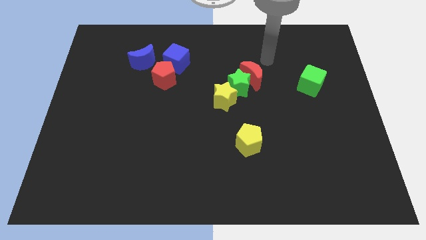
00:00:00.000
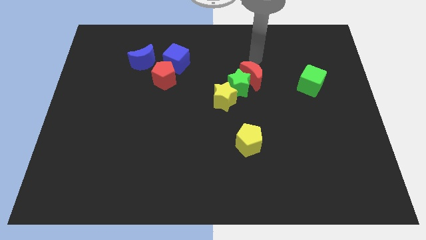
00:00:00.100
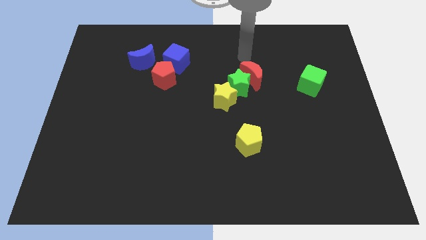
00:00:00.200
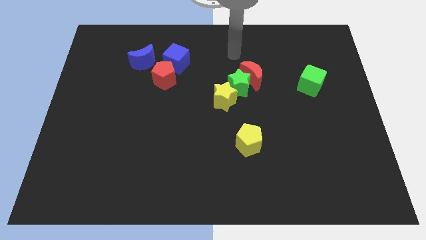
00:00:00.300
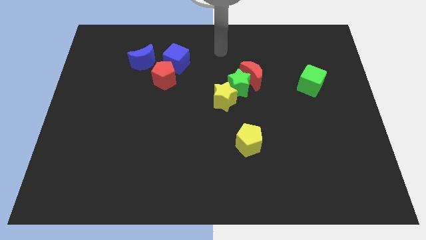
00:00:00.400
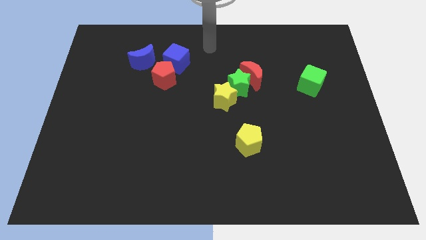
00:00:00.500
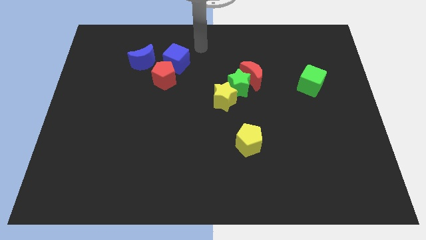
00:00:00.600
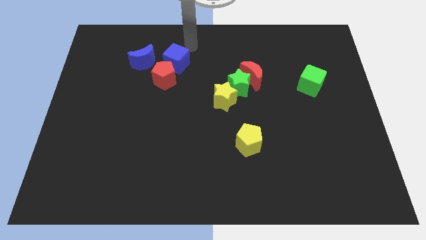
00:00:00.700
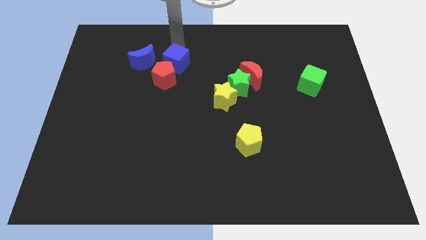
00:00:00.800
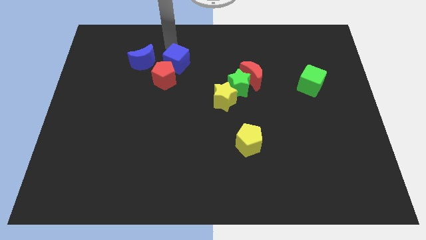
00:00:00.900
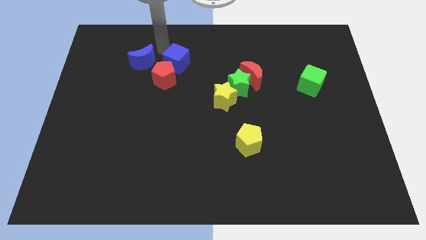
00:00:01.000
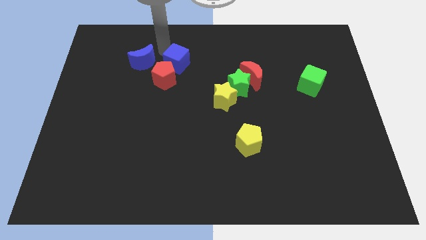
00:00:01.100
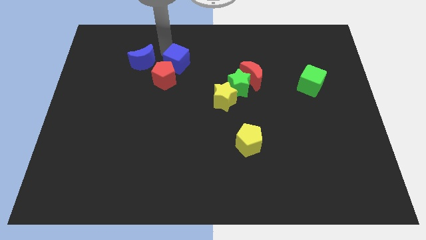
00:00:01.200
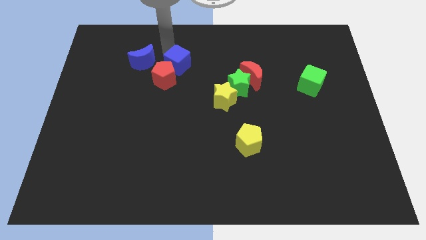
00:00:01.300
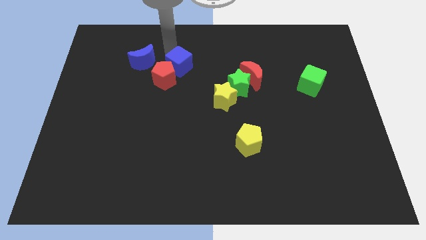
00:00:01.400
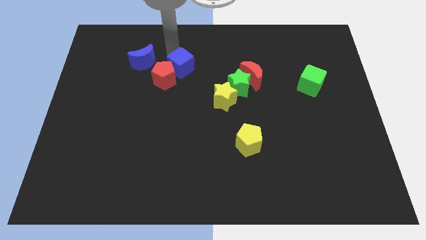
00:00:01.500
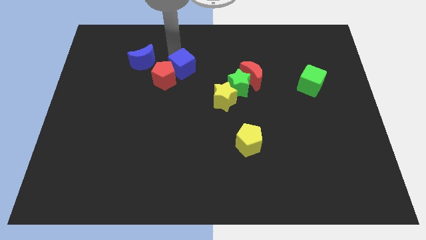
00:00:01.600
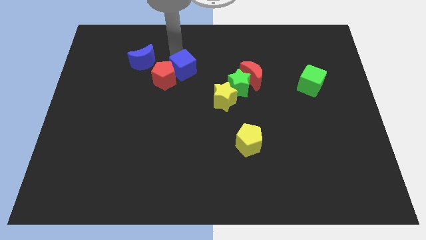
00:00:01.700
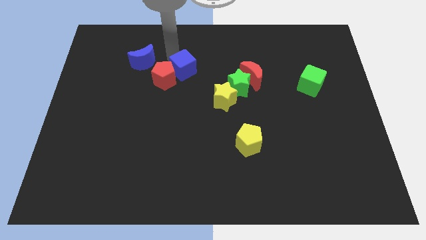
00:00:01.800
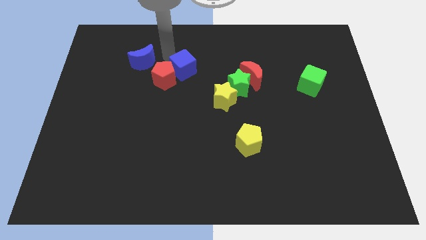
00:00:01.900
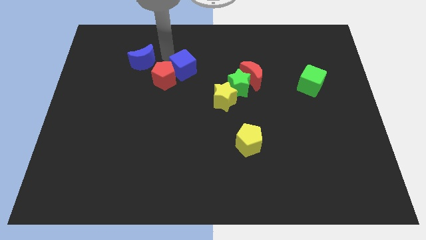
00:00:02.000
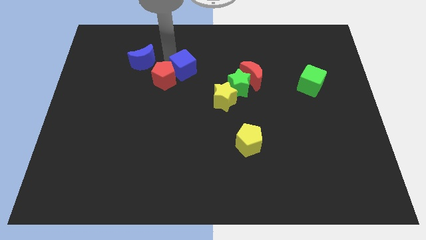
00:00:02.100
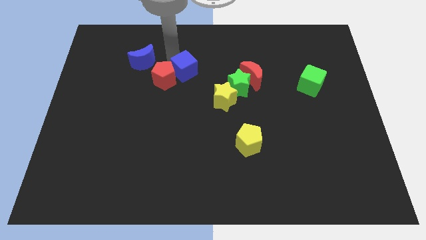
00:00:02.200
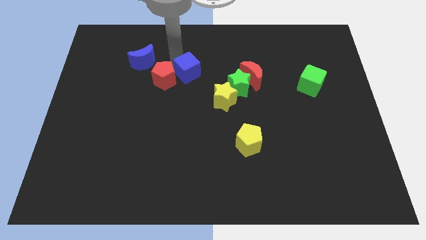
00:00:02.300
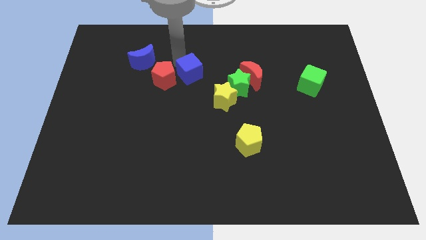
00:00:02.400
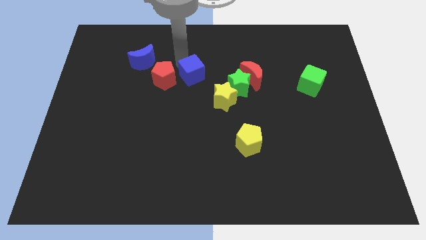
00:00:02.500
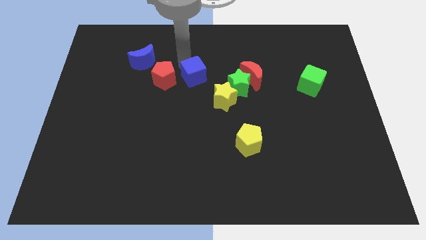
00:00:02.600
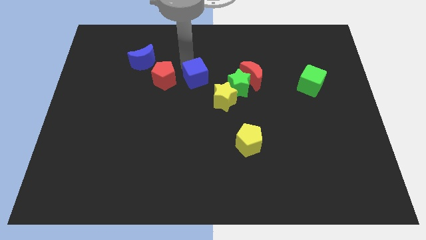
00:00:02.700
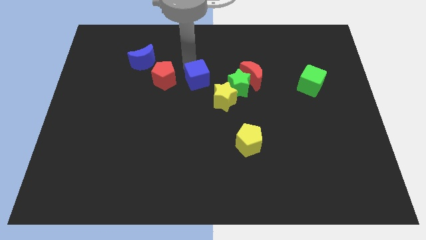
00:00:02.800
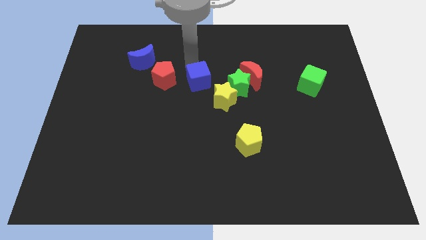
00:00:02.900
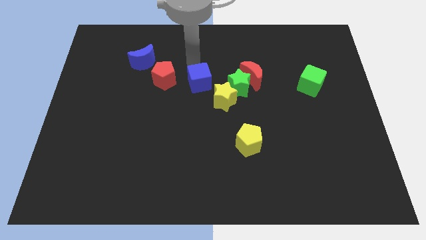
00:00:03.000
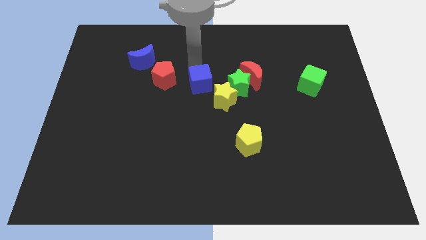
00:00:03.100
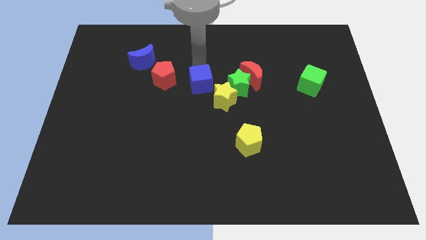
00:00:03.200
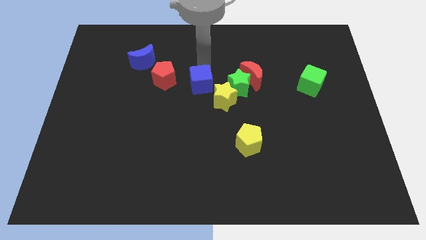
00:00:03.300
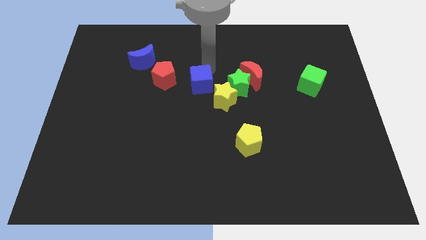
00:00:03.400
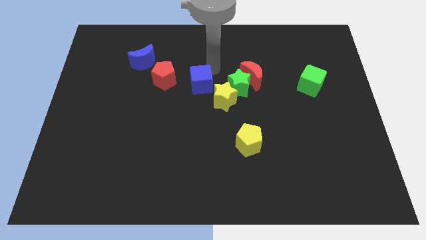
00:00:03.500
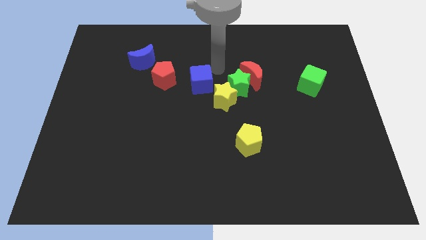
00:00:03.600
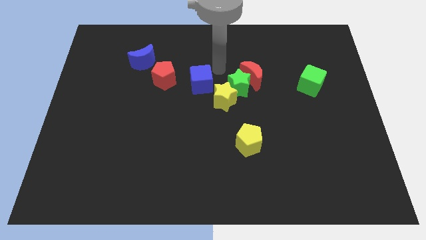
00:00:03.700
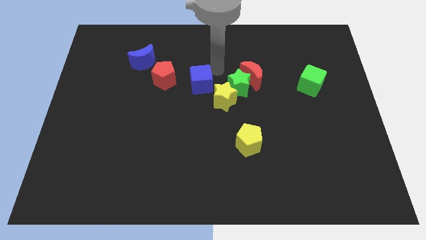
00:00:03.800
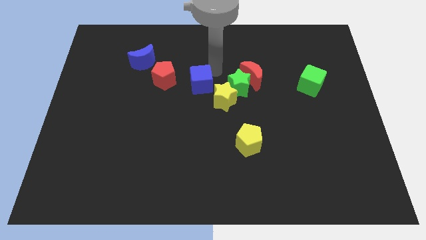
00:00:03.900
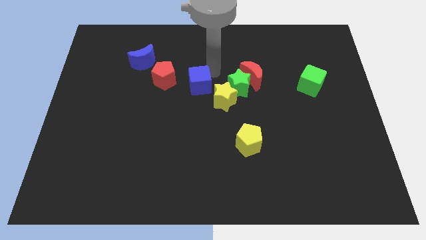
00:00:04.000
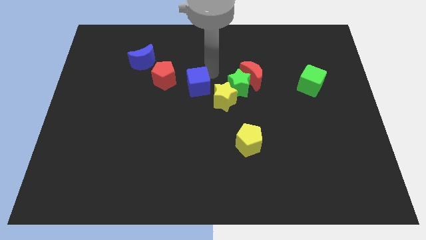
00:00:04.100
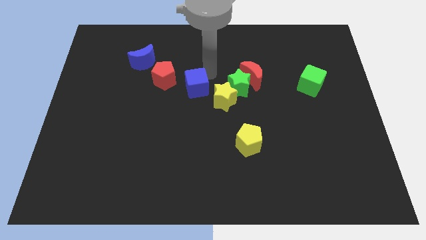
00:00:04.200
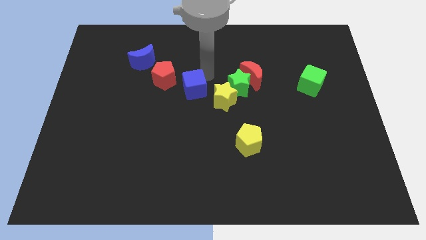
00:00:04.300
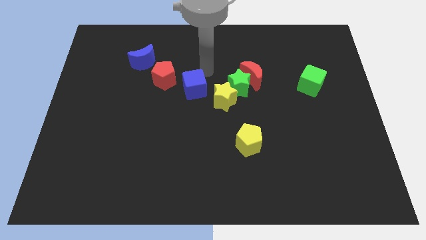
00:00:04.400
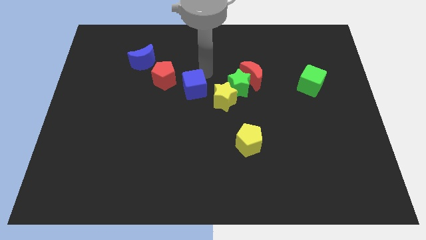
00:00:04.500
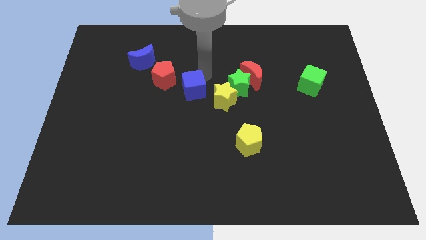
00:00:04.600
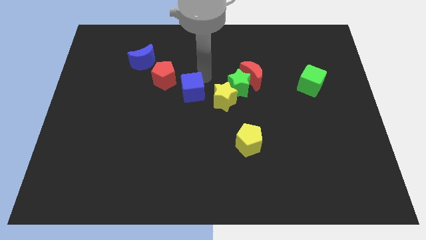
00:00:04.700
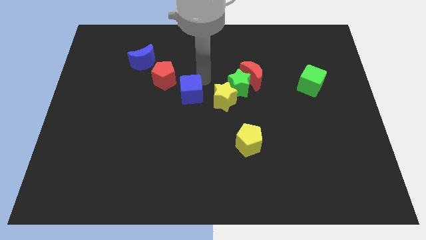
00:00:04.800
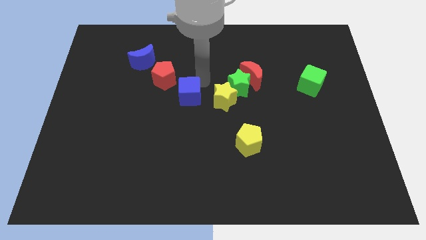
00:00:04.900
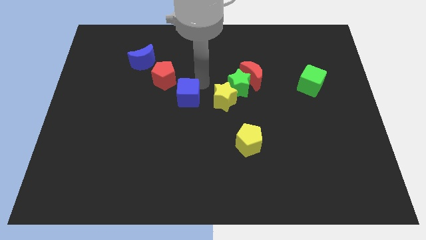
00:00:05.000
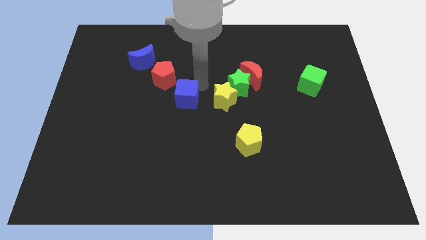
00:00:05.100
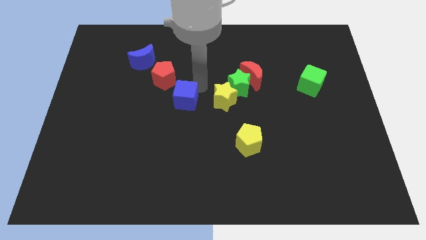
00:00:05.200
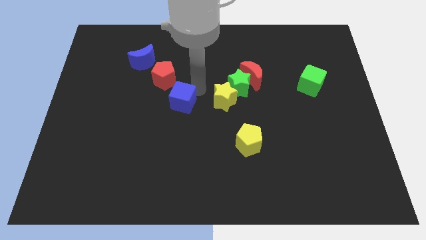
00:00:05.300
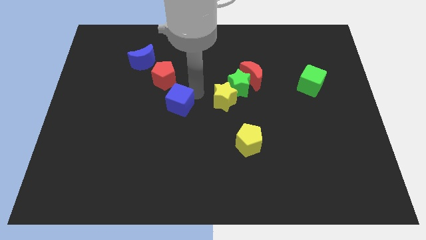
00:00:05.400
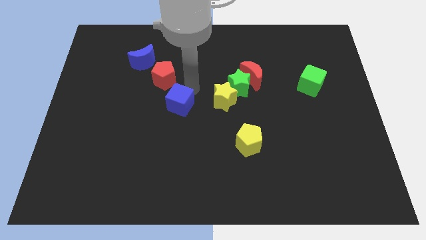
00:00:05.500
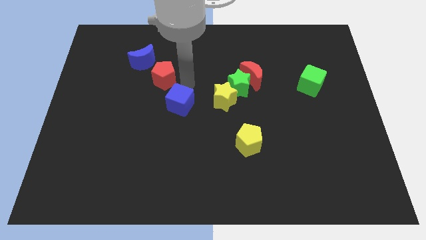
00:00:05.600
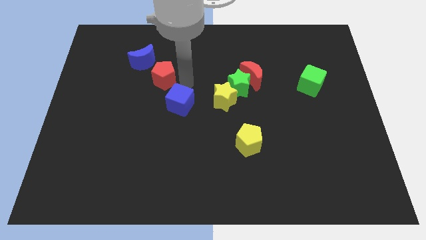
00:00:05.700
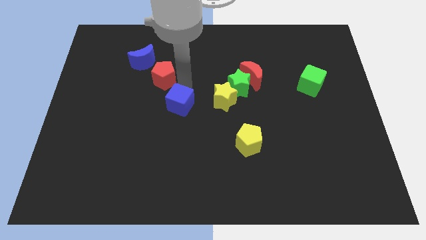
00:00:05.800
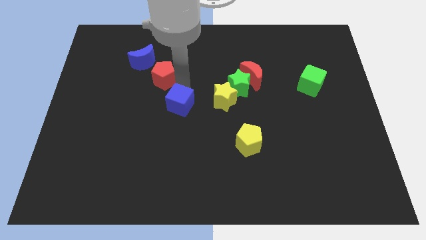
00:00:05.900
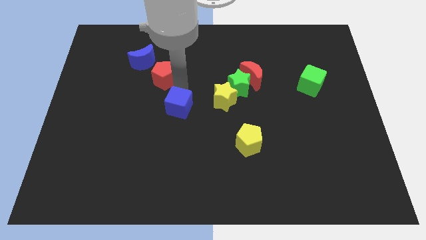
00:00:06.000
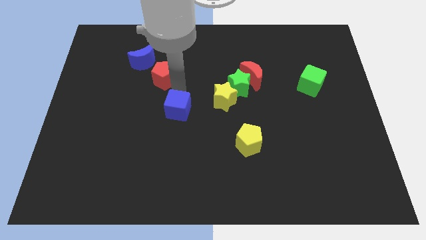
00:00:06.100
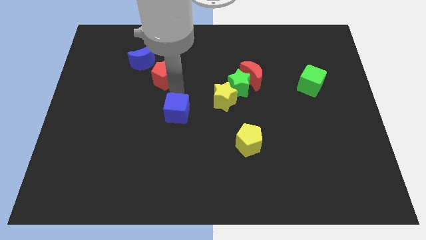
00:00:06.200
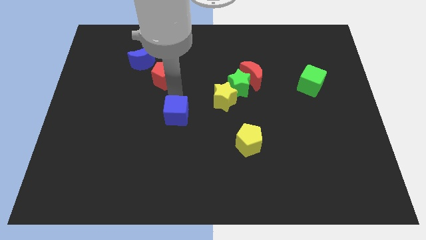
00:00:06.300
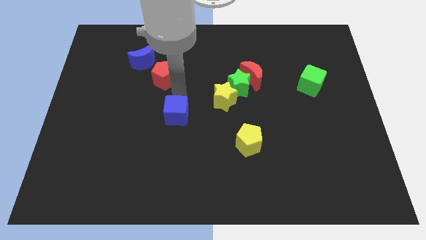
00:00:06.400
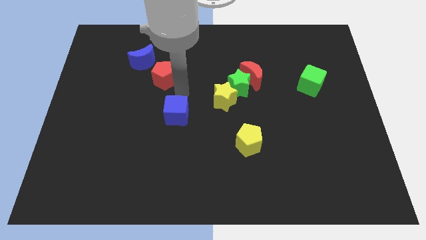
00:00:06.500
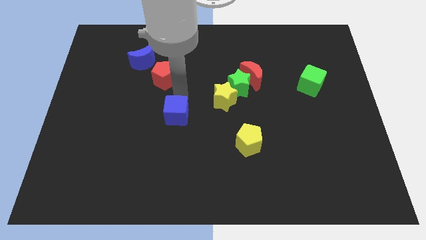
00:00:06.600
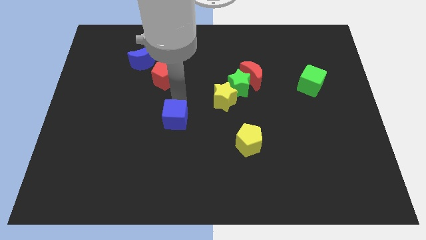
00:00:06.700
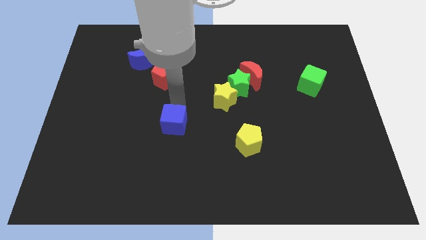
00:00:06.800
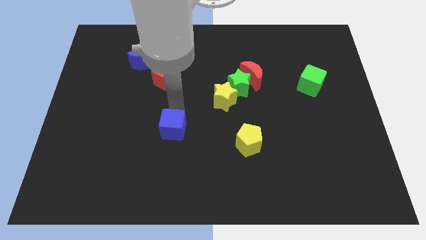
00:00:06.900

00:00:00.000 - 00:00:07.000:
slide the blue cube downwards

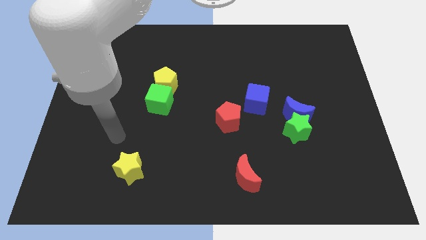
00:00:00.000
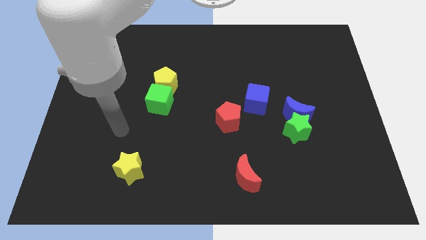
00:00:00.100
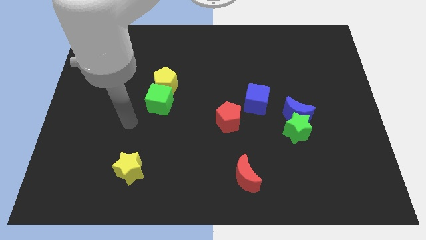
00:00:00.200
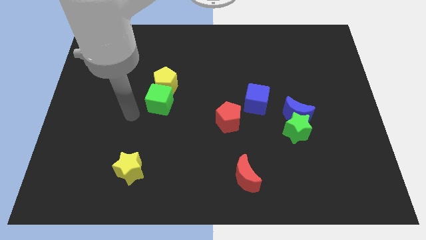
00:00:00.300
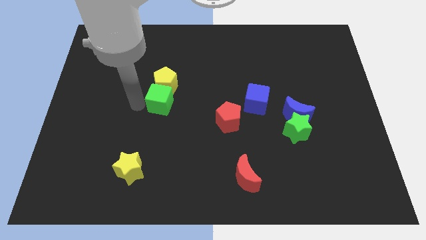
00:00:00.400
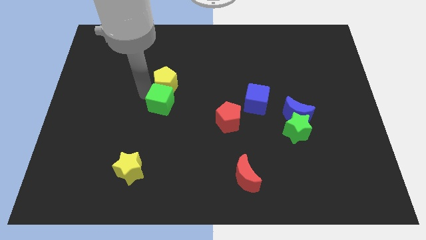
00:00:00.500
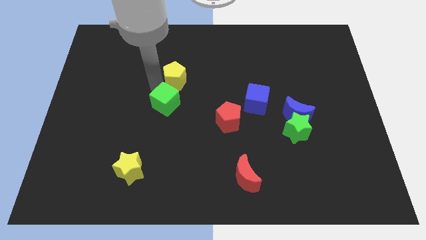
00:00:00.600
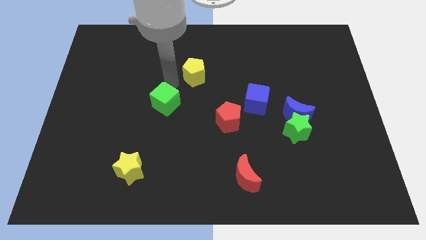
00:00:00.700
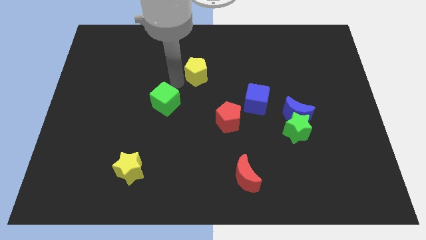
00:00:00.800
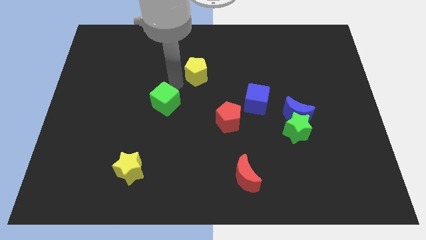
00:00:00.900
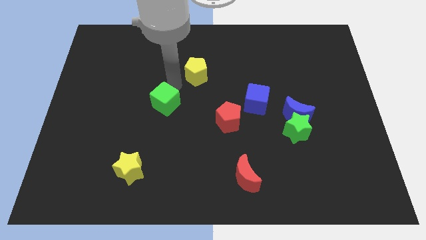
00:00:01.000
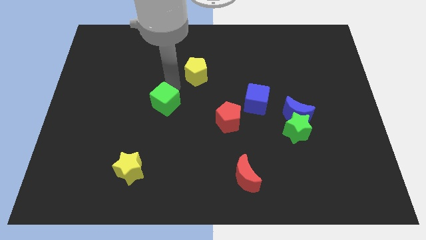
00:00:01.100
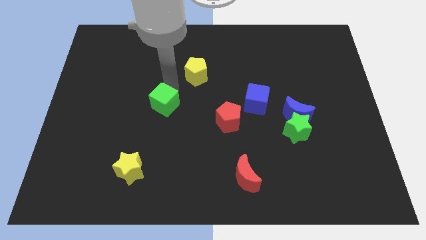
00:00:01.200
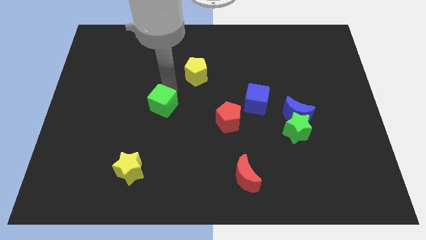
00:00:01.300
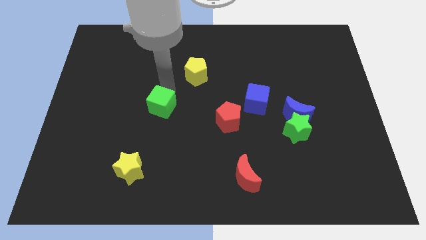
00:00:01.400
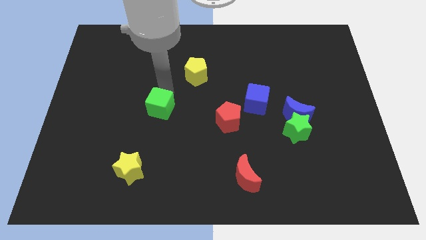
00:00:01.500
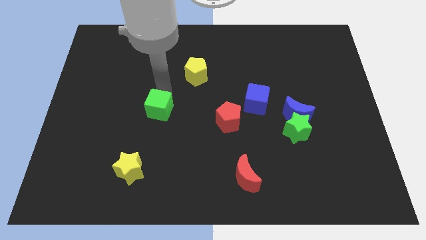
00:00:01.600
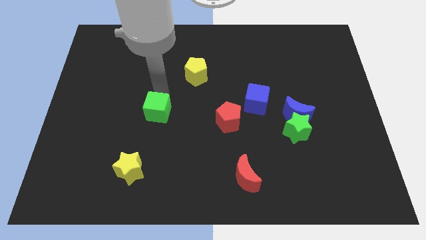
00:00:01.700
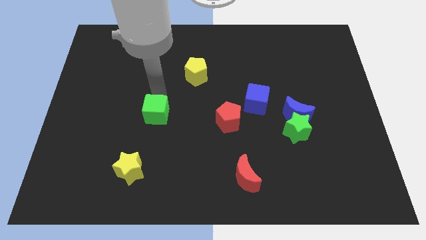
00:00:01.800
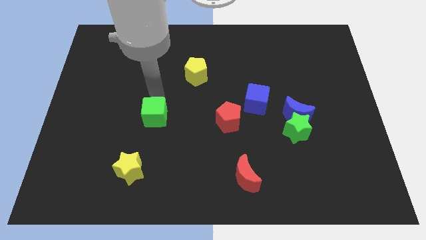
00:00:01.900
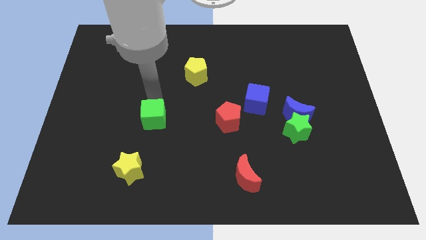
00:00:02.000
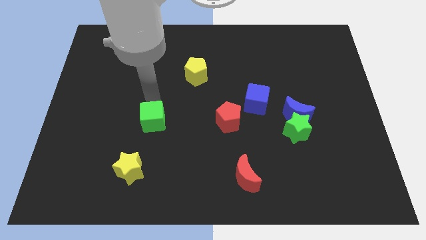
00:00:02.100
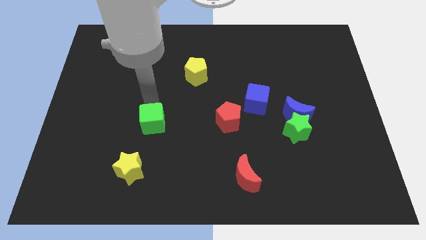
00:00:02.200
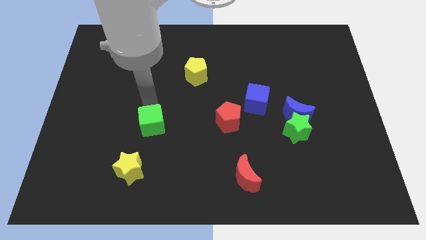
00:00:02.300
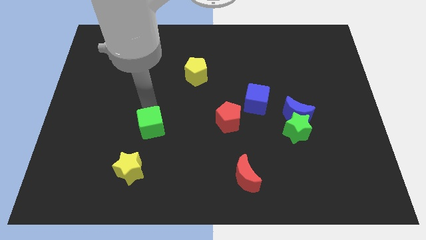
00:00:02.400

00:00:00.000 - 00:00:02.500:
move the green cube a little bit down
